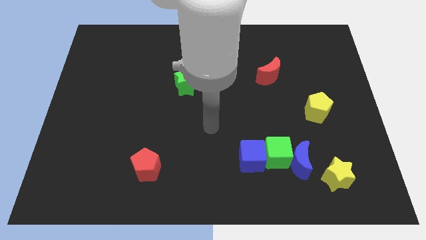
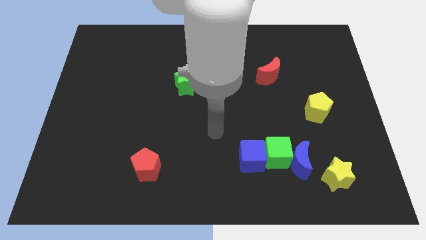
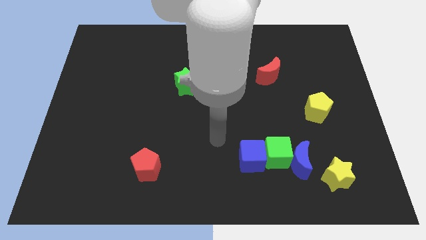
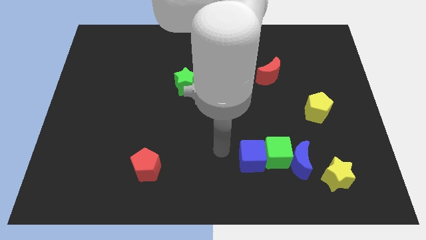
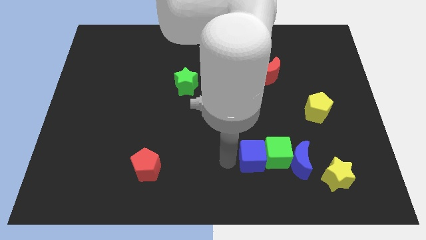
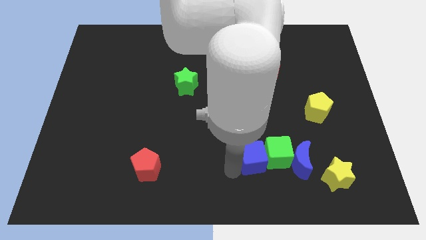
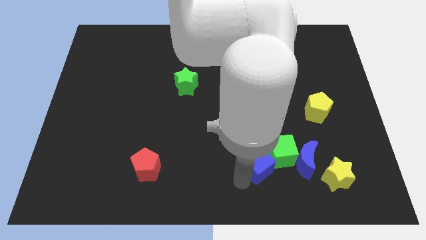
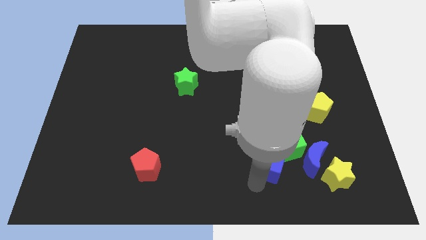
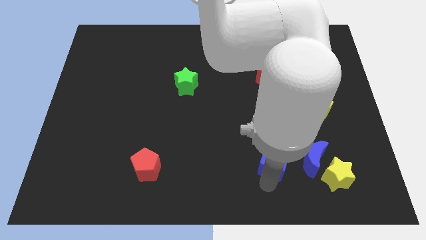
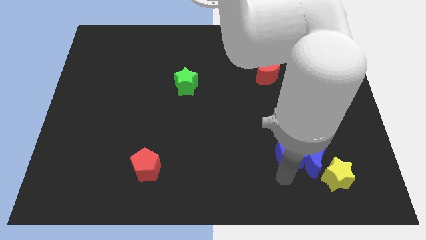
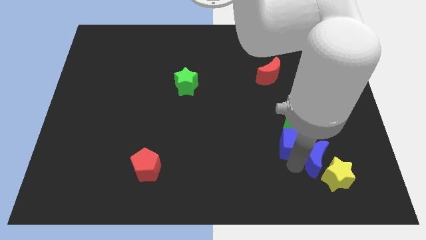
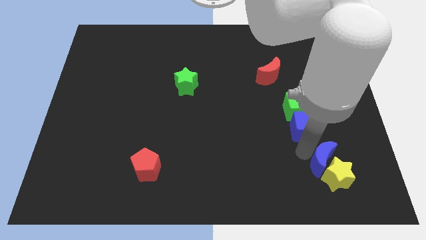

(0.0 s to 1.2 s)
separate the green cube from the blue moon and blue cube

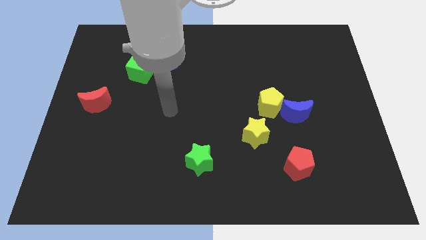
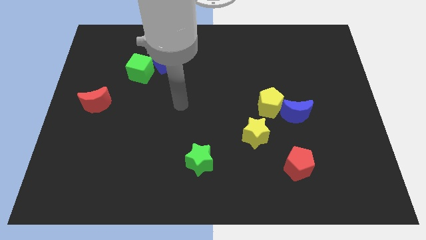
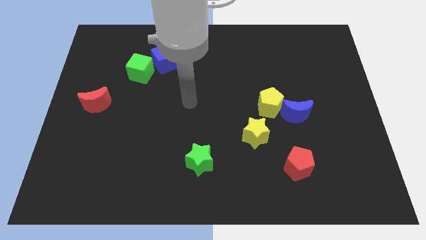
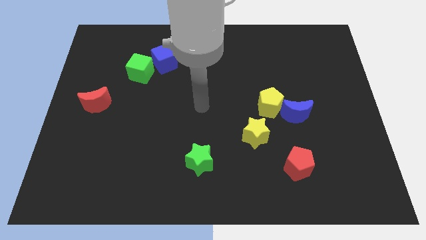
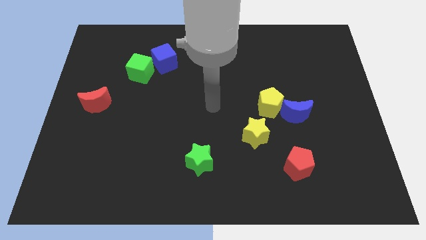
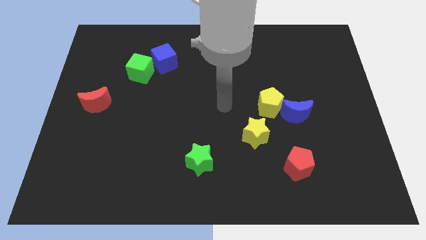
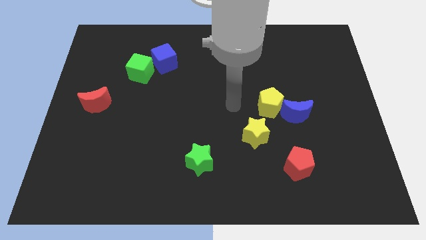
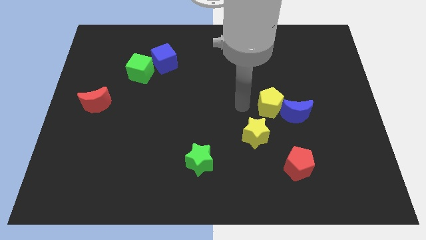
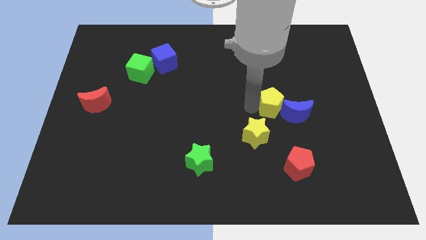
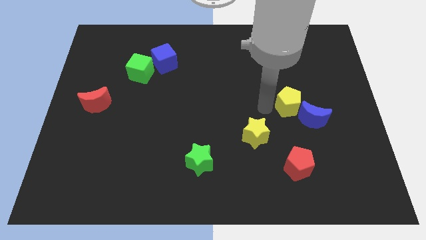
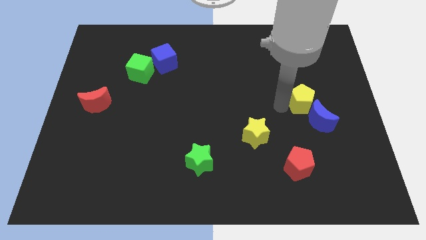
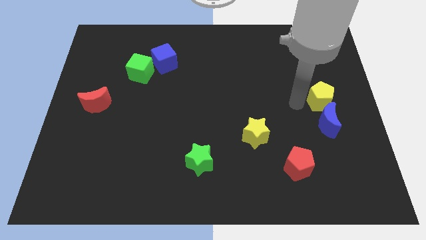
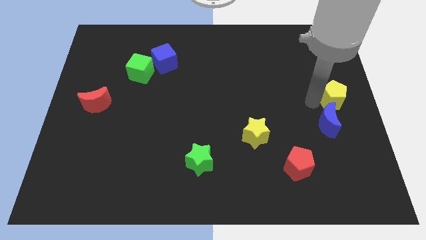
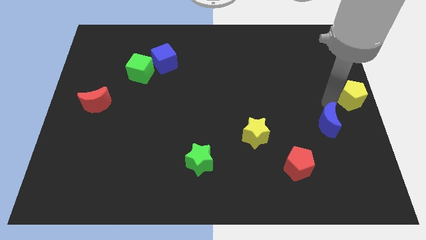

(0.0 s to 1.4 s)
pull the blue moon apart from the yellow pentagon

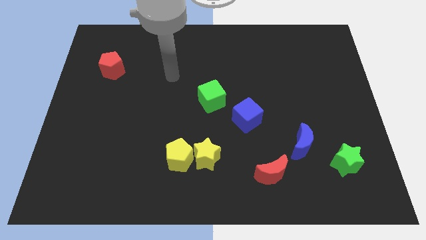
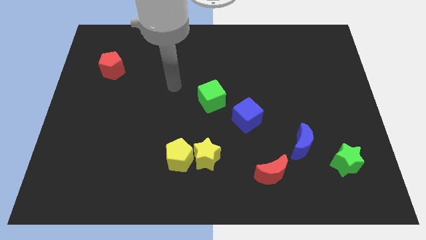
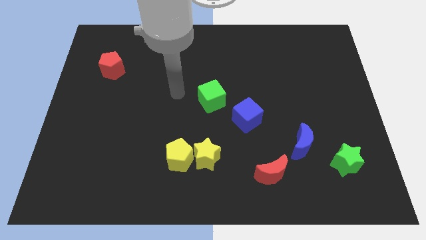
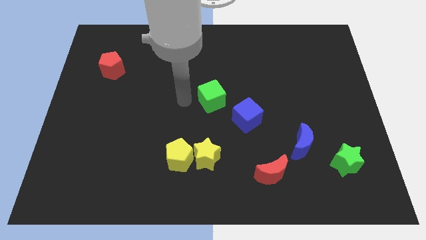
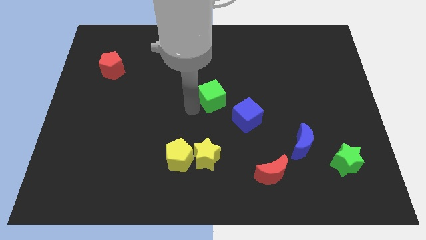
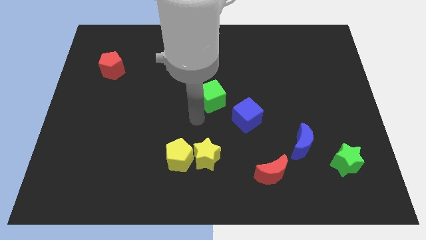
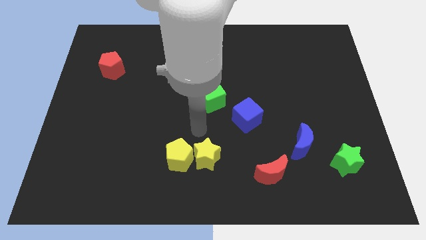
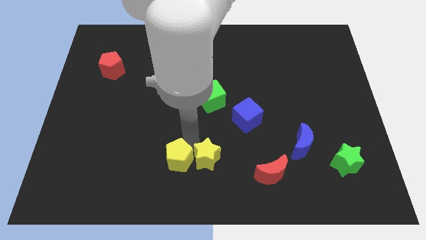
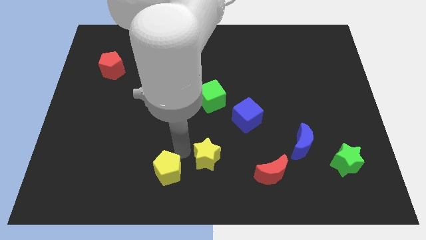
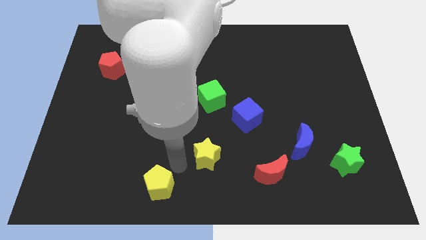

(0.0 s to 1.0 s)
pull the yellow star apart from the yellow pentagon

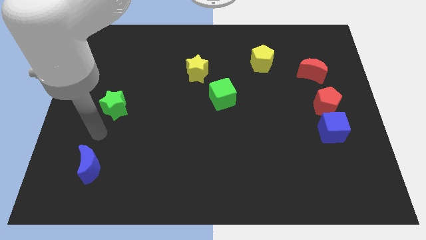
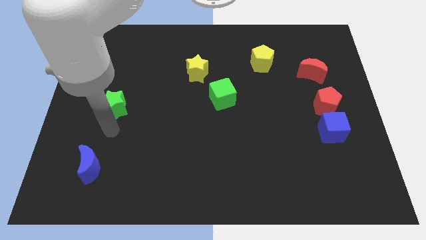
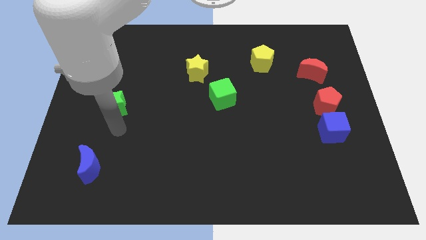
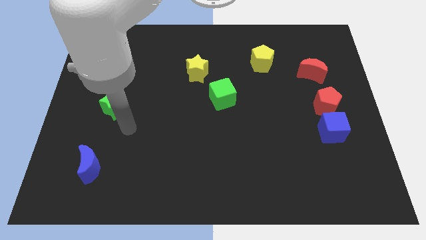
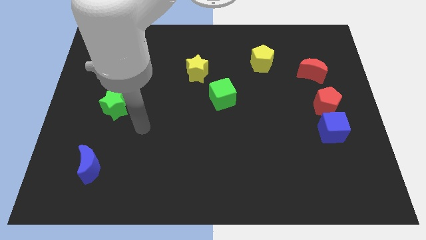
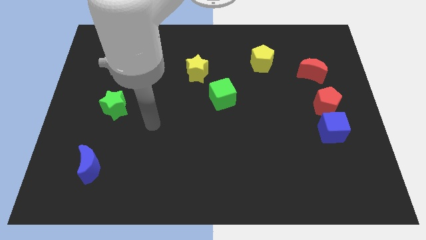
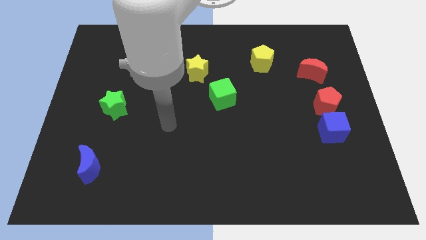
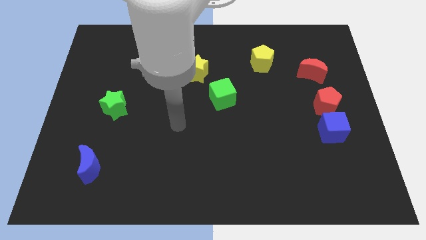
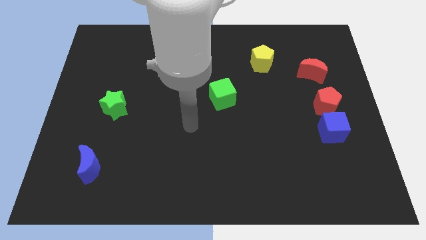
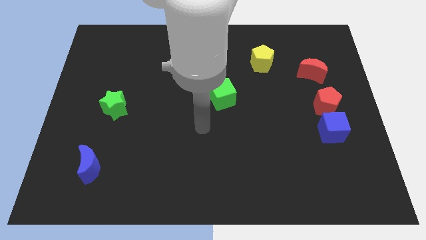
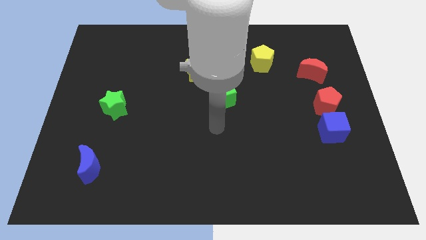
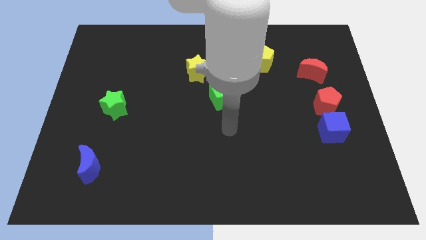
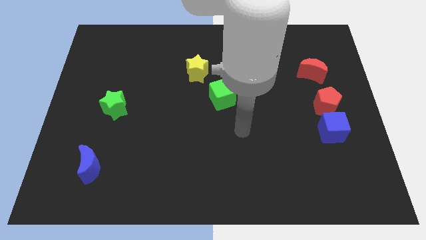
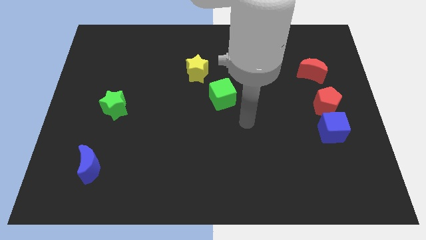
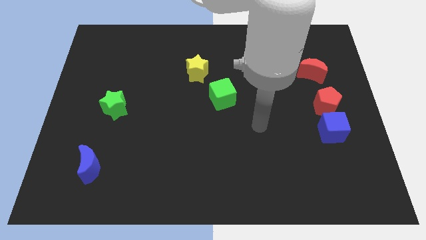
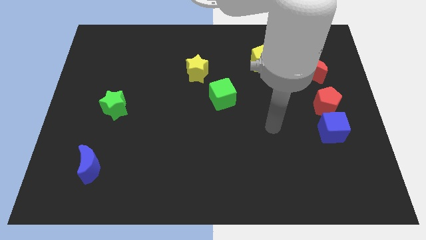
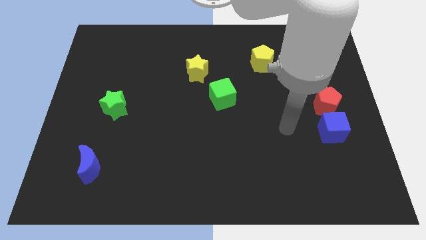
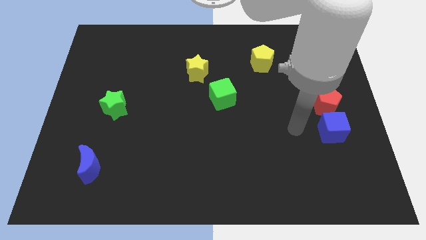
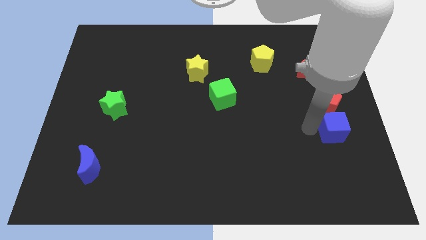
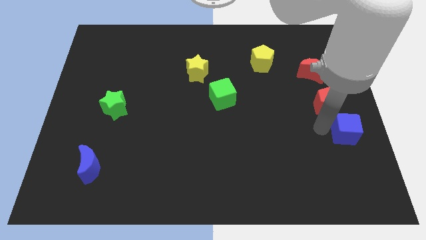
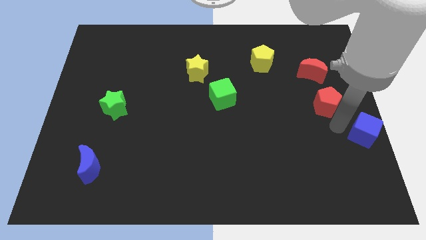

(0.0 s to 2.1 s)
pull the red pentagon apart from the blue cube

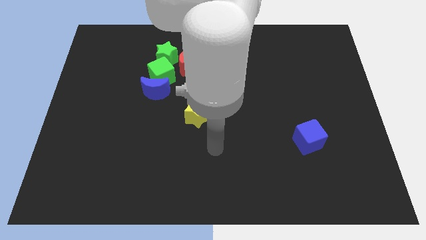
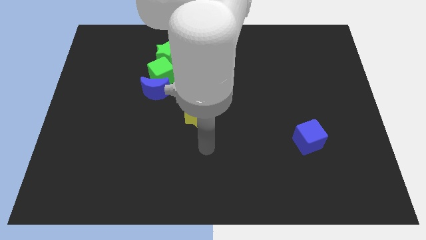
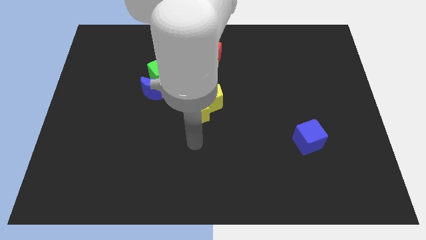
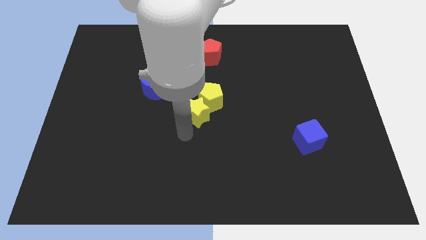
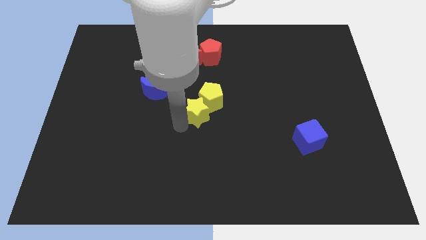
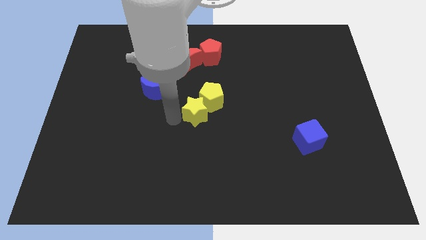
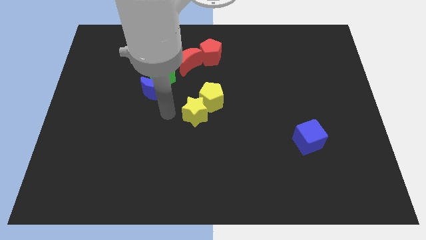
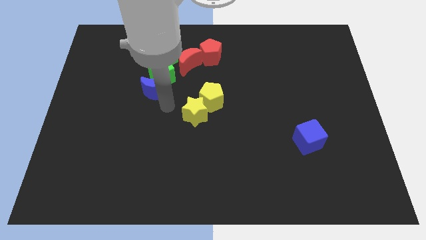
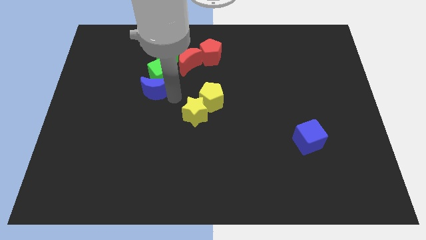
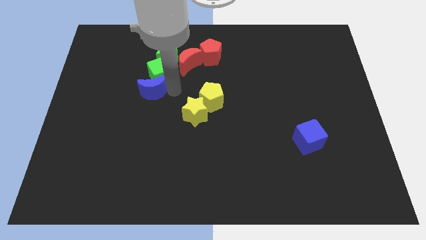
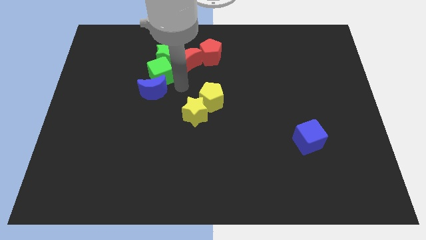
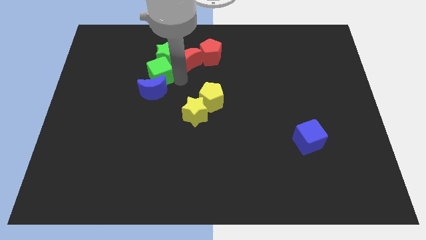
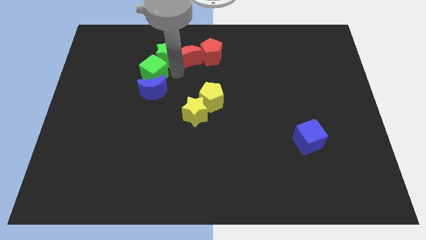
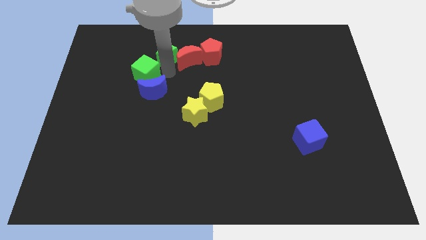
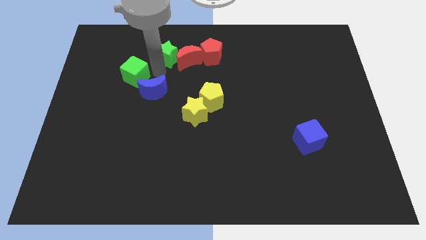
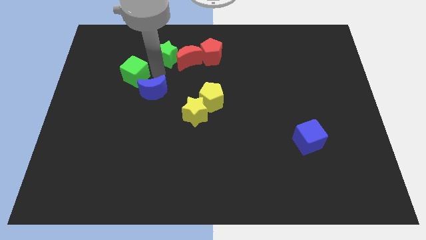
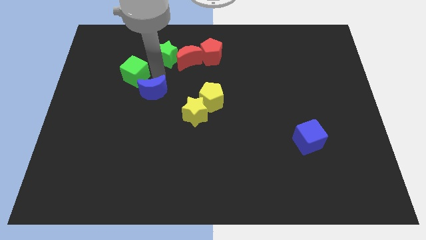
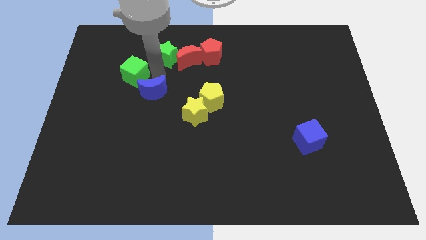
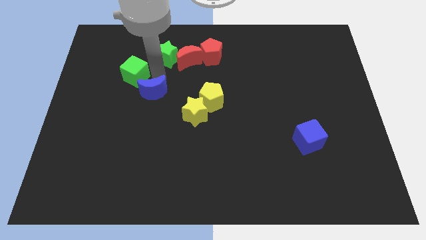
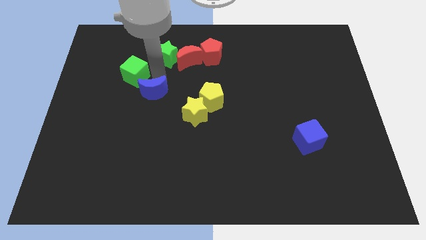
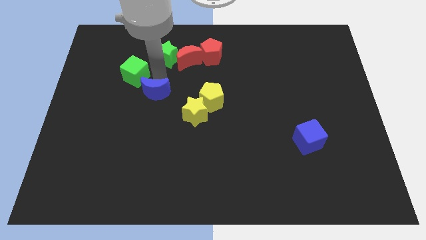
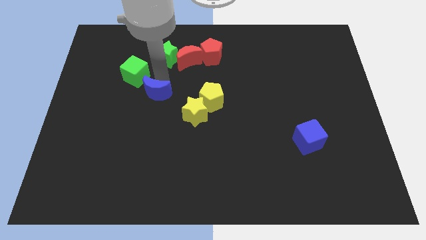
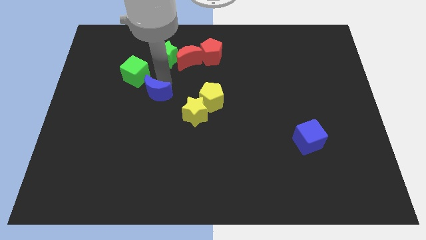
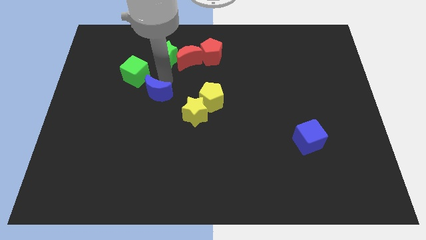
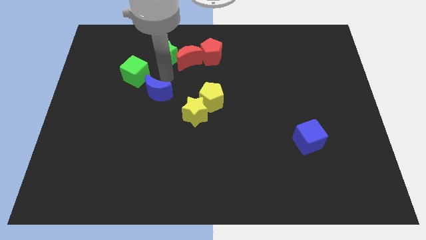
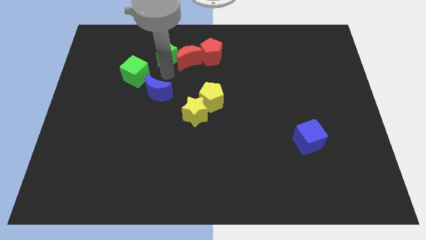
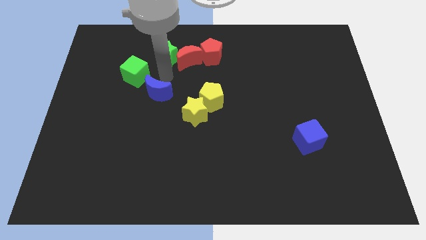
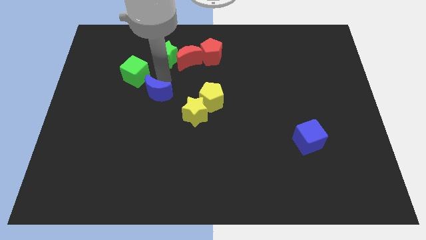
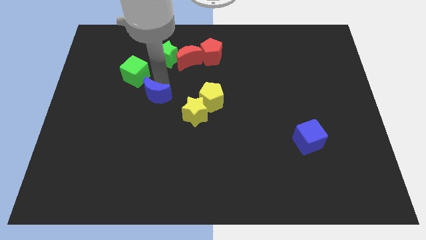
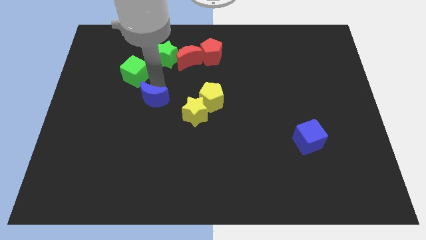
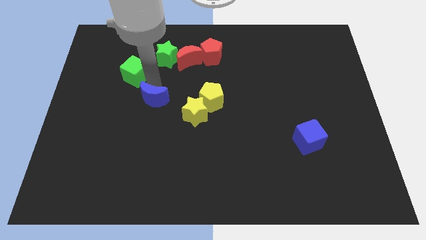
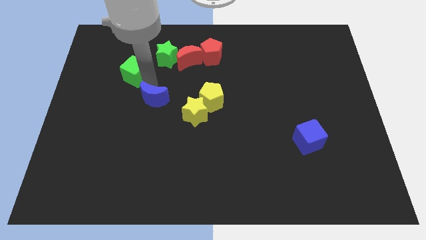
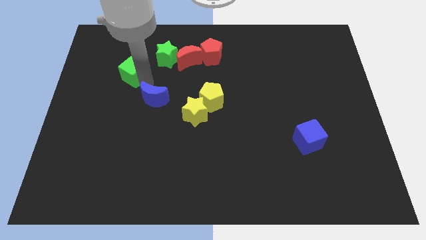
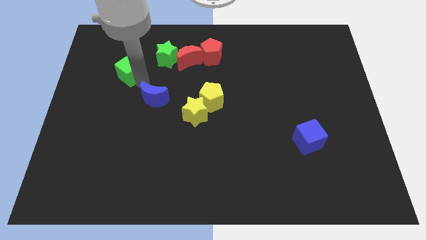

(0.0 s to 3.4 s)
pull the blue moon apart from the green cube

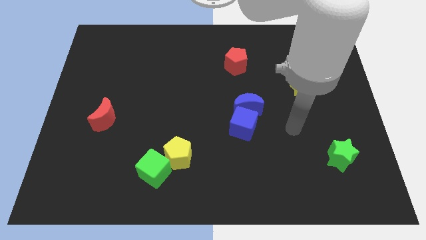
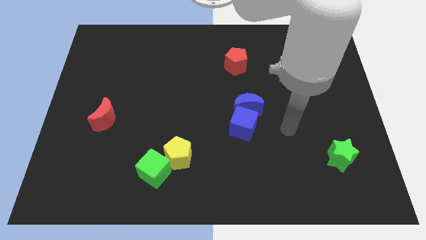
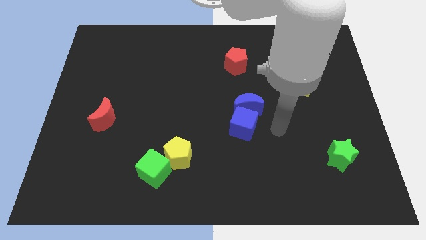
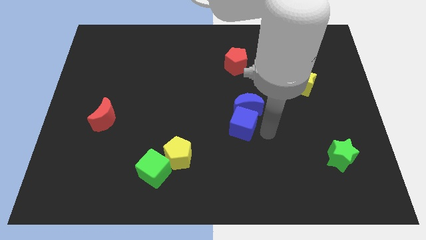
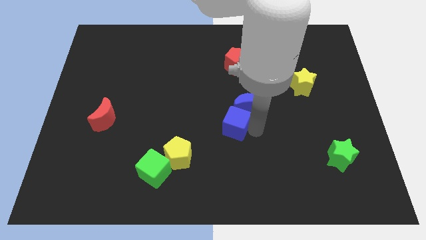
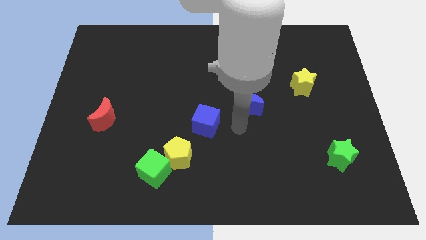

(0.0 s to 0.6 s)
pull the blue moon apart from the blue cube
